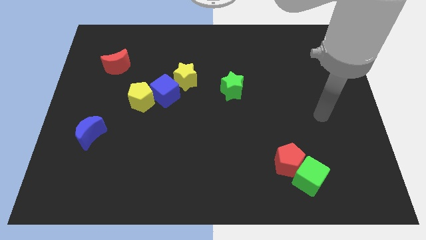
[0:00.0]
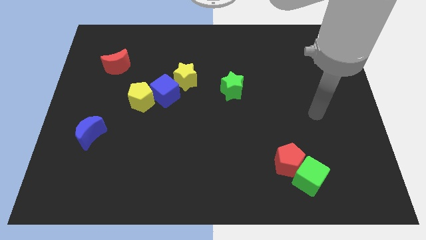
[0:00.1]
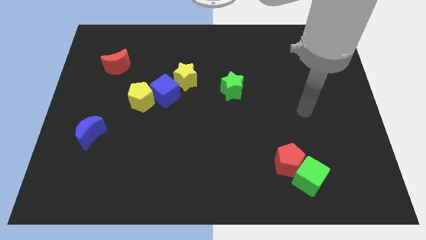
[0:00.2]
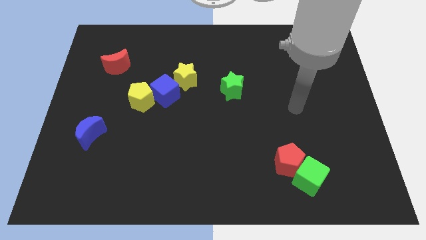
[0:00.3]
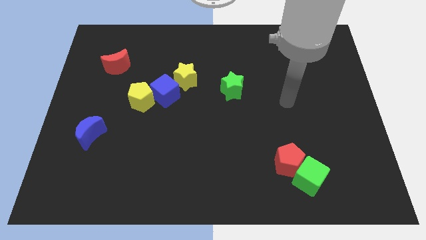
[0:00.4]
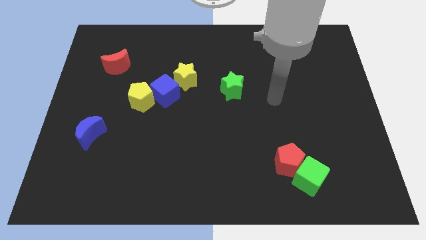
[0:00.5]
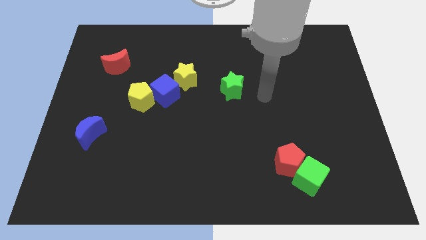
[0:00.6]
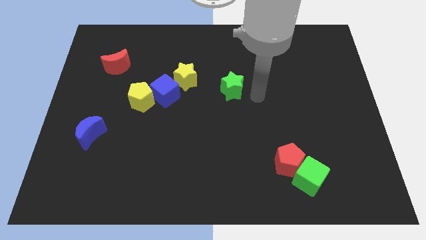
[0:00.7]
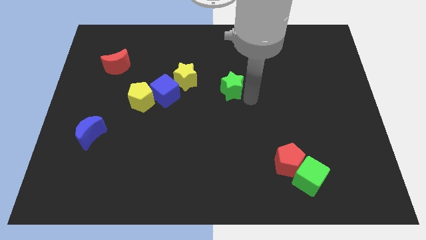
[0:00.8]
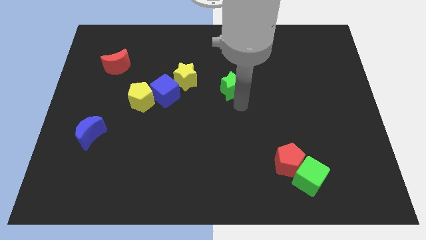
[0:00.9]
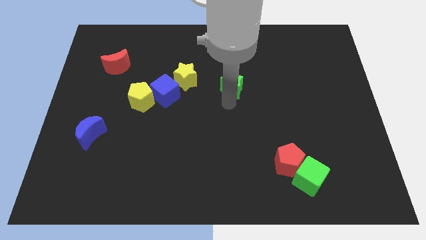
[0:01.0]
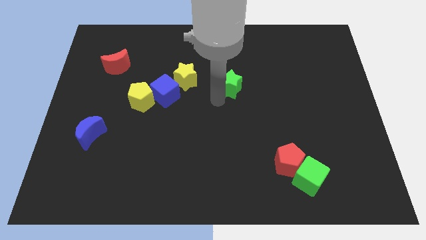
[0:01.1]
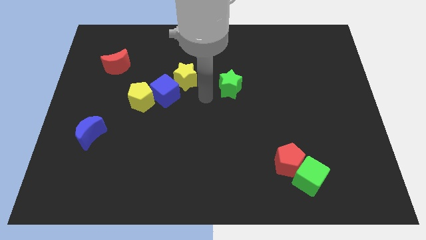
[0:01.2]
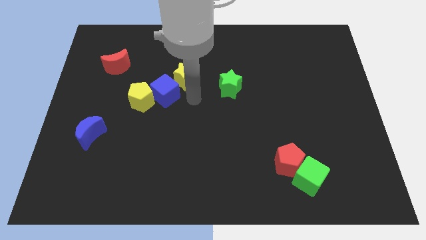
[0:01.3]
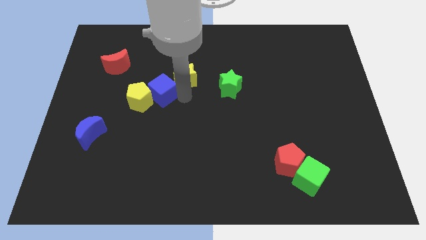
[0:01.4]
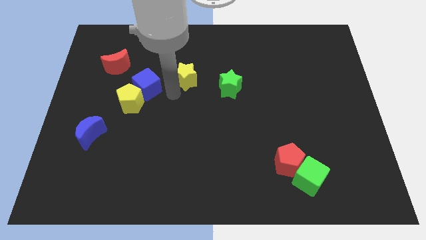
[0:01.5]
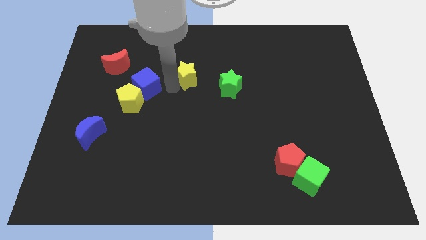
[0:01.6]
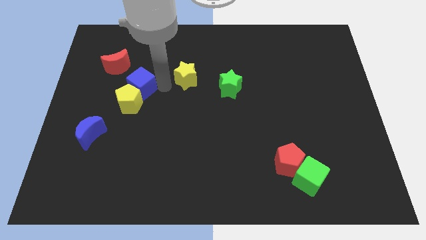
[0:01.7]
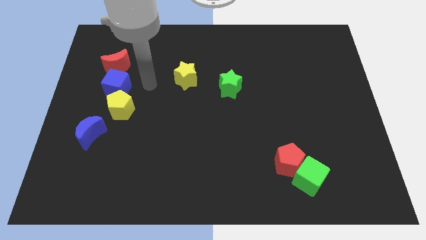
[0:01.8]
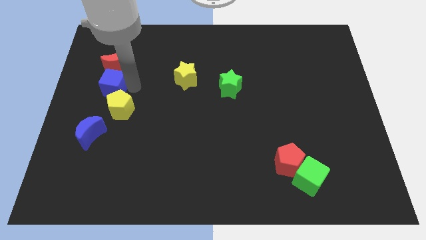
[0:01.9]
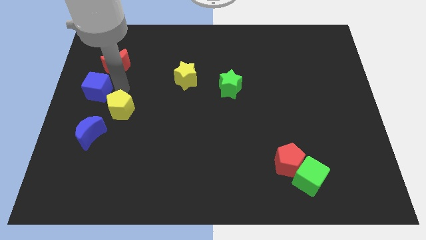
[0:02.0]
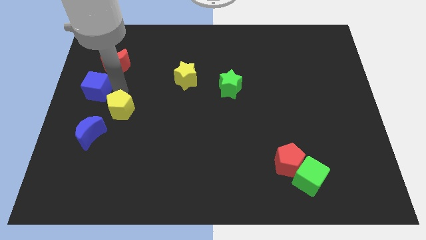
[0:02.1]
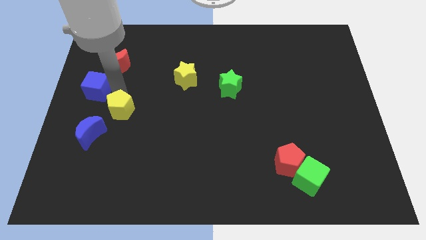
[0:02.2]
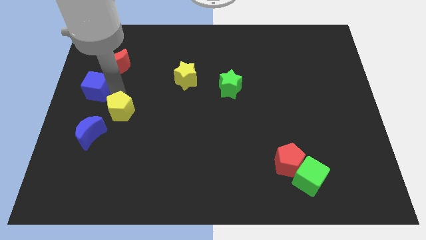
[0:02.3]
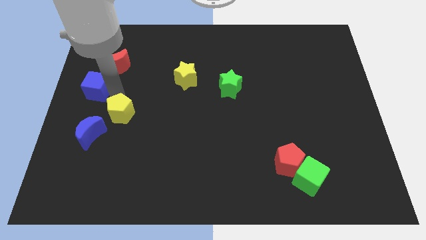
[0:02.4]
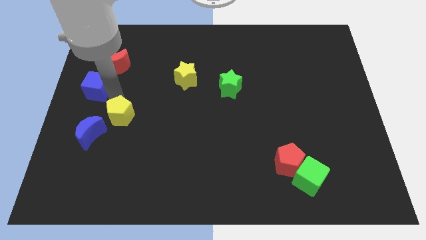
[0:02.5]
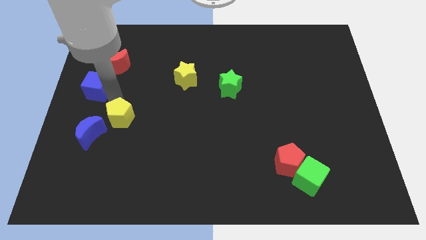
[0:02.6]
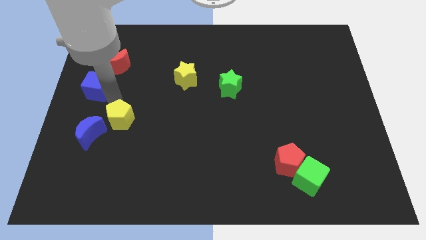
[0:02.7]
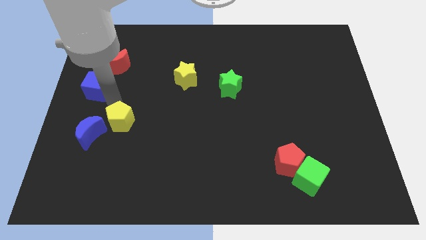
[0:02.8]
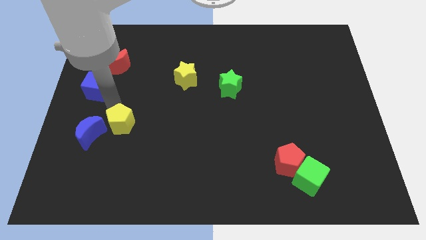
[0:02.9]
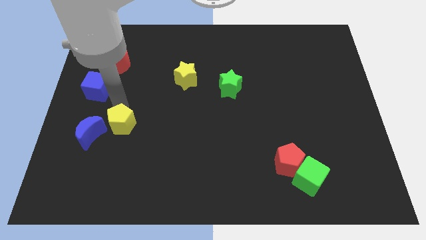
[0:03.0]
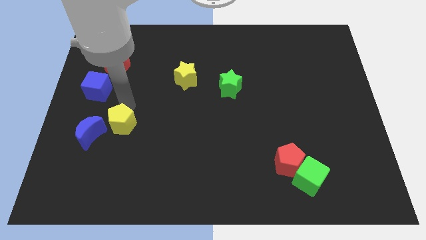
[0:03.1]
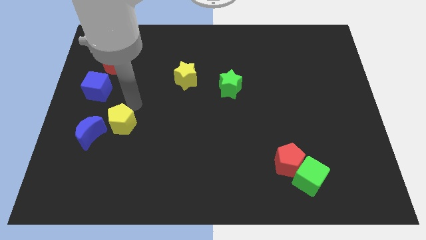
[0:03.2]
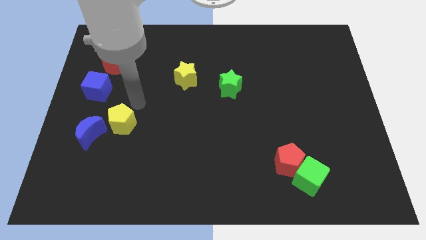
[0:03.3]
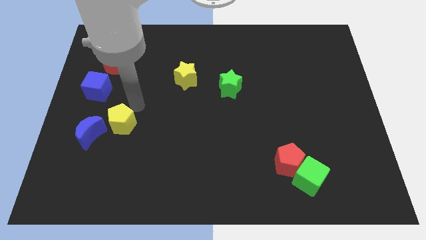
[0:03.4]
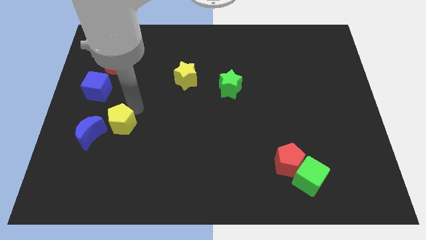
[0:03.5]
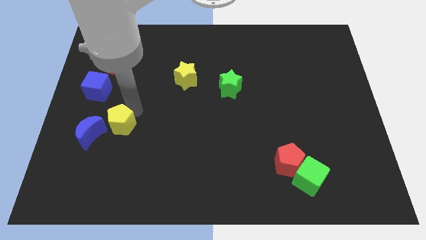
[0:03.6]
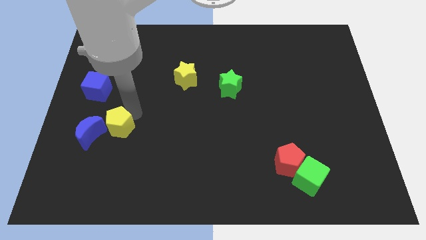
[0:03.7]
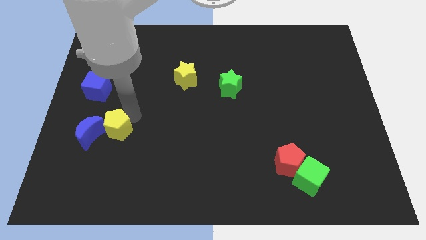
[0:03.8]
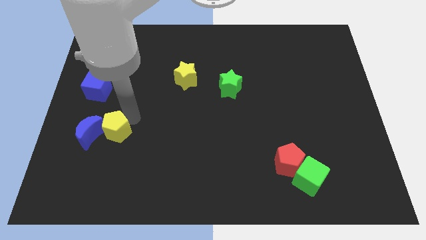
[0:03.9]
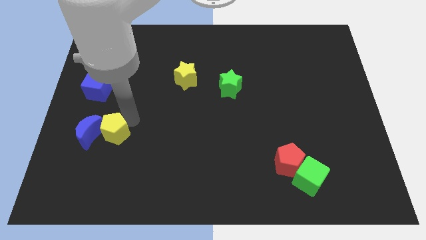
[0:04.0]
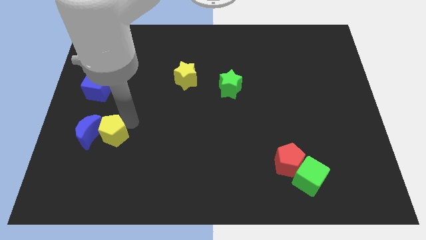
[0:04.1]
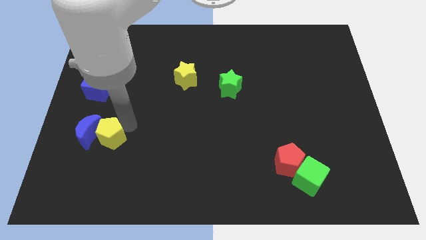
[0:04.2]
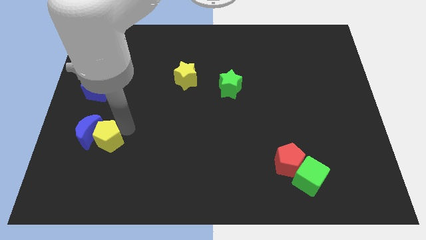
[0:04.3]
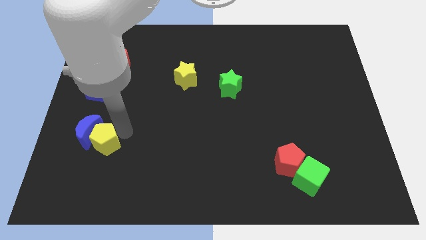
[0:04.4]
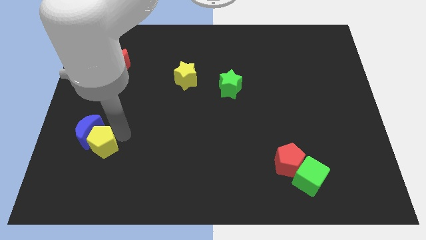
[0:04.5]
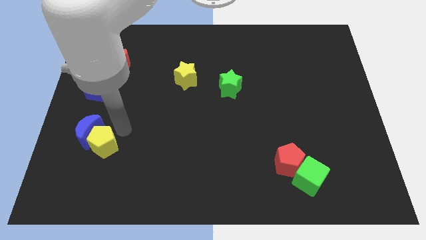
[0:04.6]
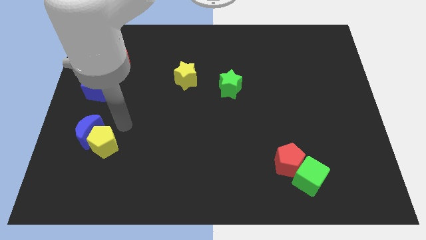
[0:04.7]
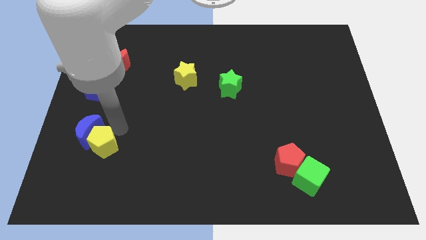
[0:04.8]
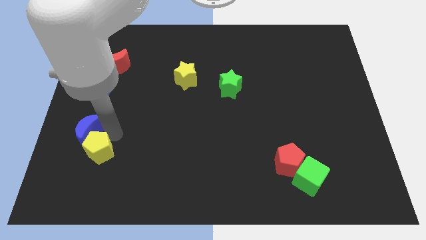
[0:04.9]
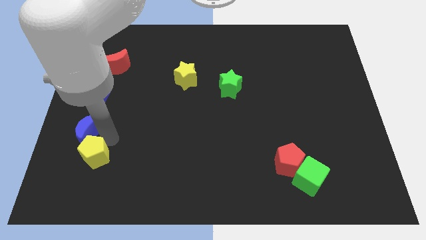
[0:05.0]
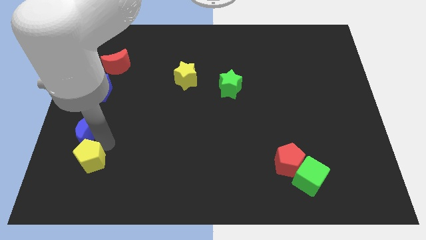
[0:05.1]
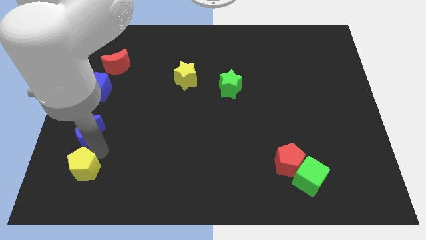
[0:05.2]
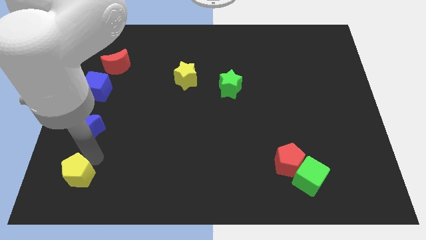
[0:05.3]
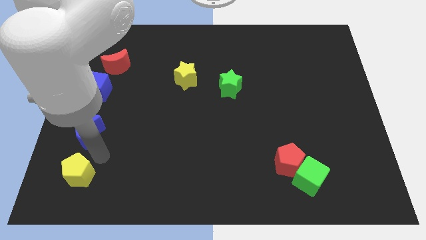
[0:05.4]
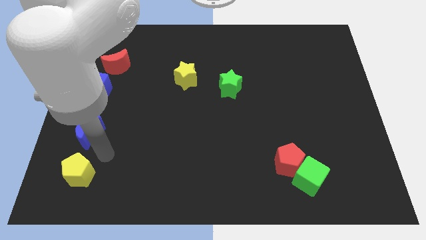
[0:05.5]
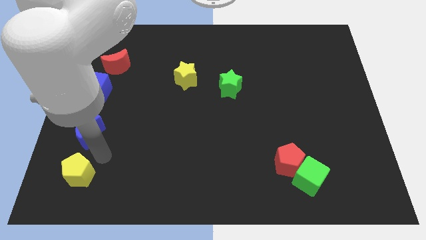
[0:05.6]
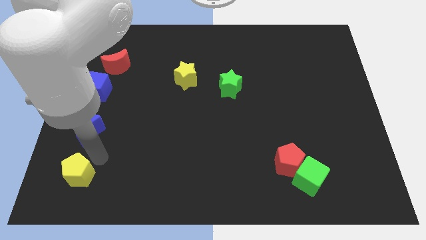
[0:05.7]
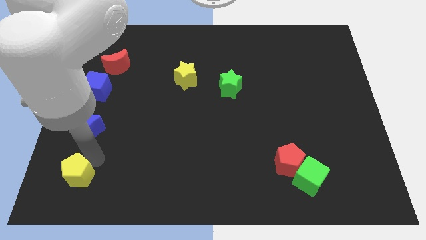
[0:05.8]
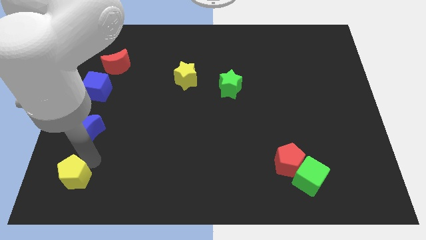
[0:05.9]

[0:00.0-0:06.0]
put the yellow pentagon to the bottom left of the board
